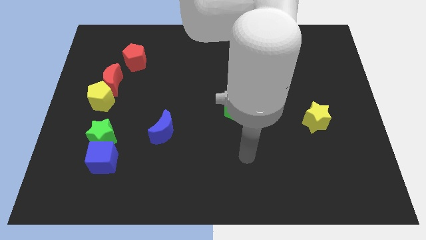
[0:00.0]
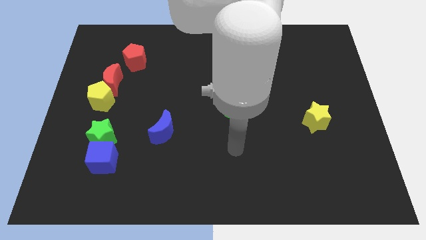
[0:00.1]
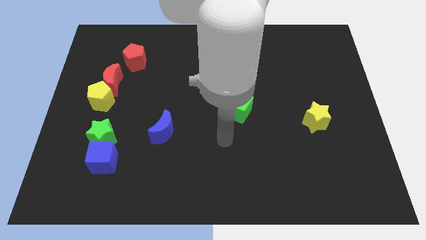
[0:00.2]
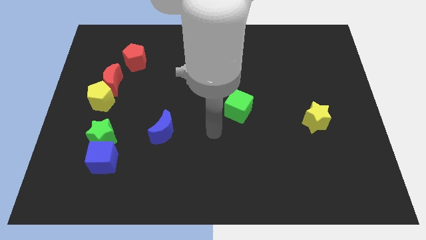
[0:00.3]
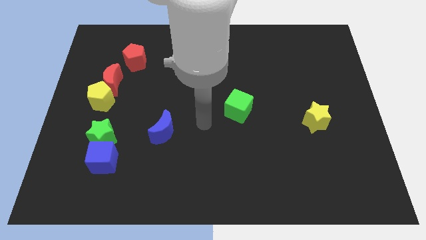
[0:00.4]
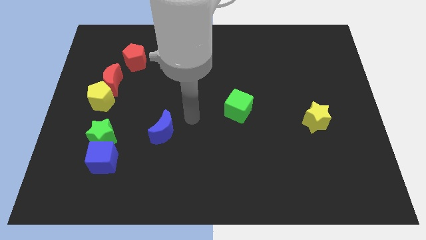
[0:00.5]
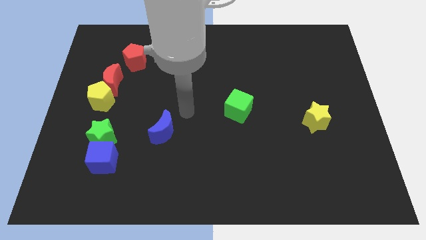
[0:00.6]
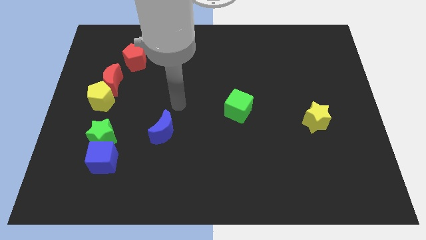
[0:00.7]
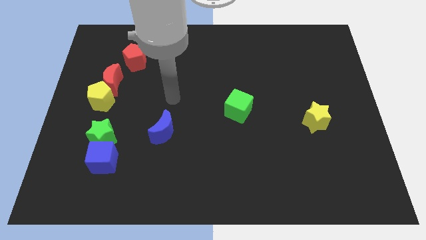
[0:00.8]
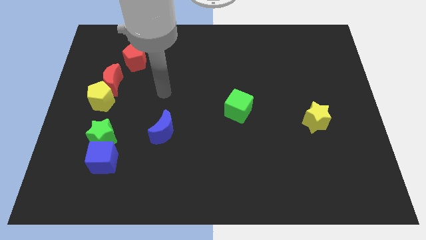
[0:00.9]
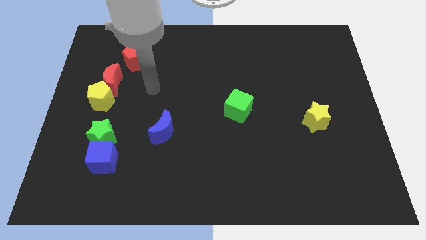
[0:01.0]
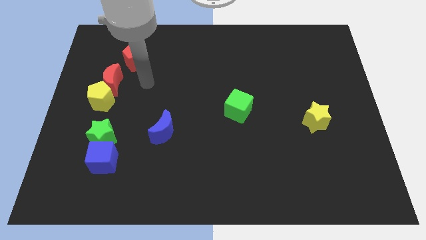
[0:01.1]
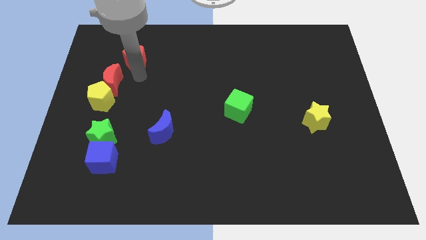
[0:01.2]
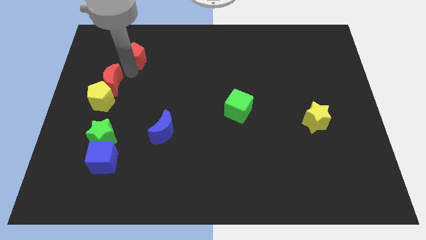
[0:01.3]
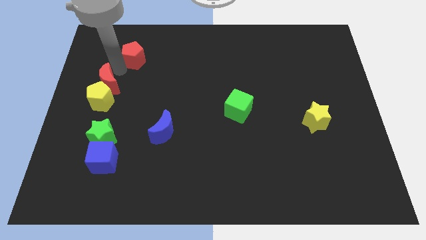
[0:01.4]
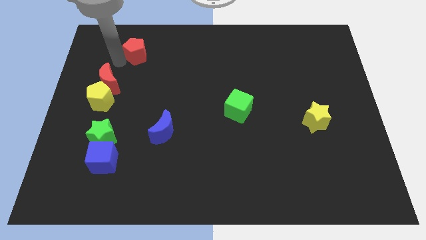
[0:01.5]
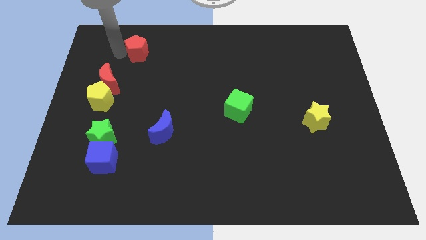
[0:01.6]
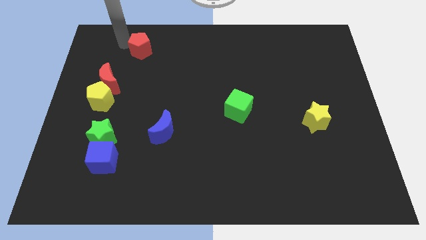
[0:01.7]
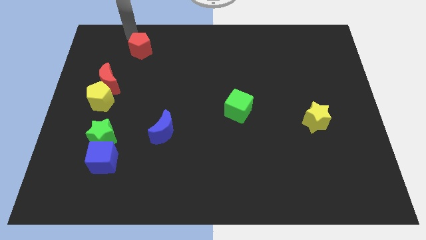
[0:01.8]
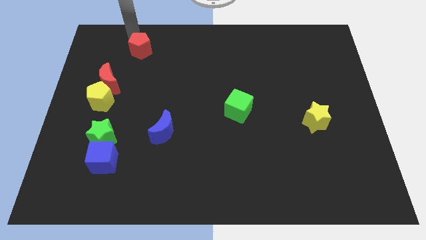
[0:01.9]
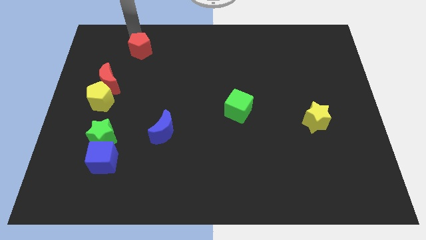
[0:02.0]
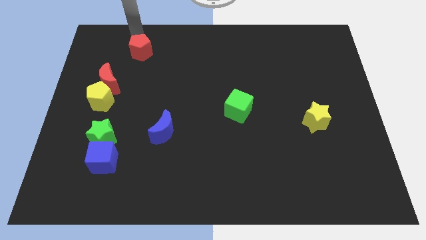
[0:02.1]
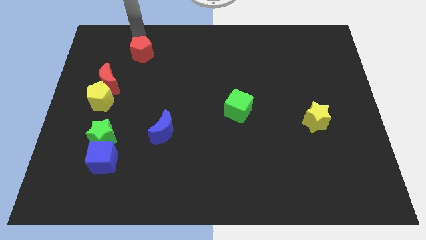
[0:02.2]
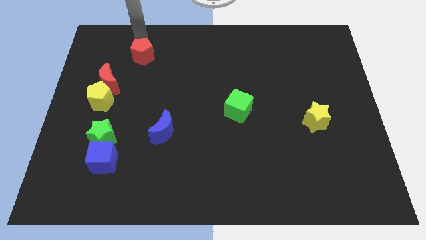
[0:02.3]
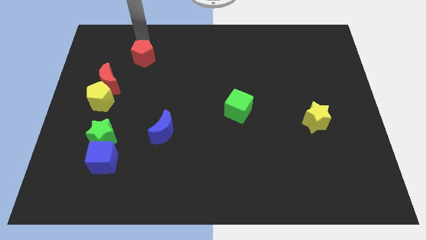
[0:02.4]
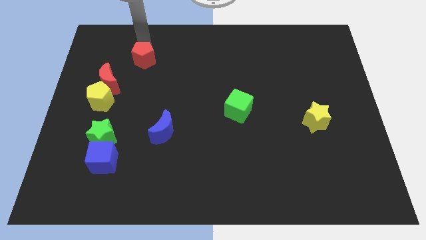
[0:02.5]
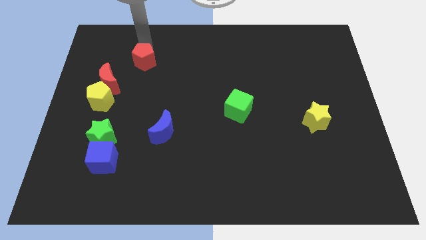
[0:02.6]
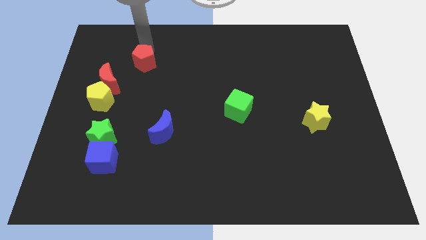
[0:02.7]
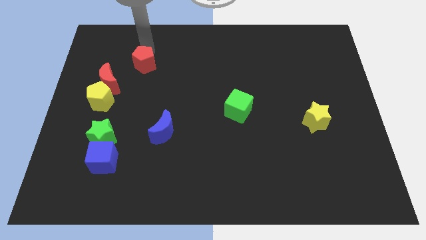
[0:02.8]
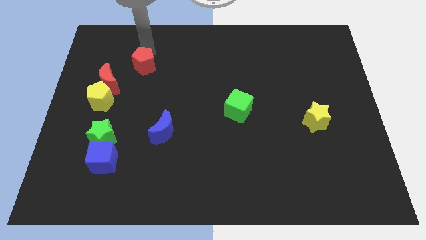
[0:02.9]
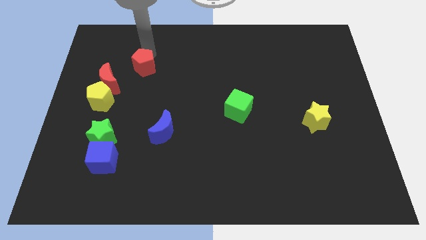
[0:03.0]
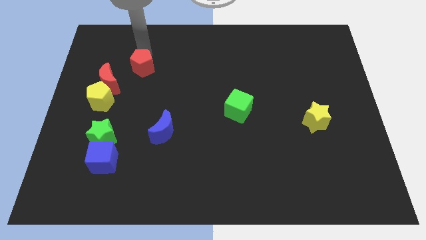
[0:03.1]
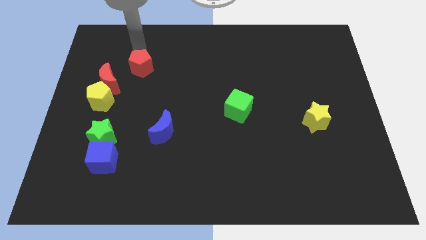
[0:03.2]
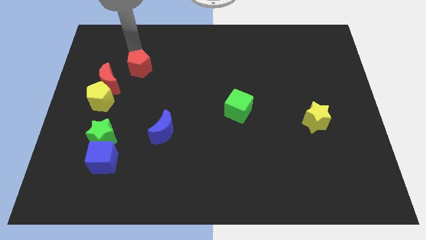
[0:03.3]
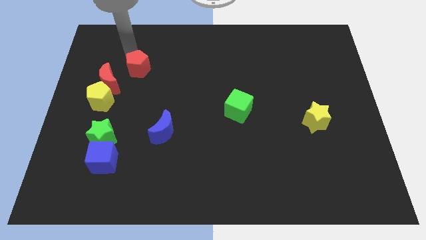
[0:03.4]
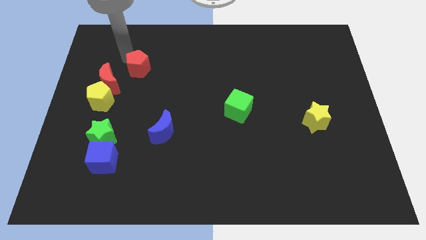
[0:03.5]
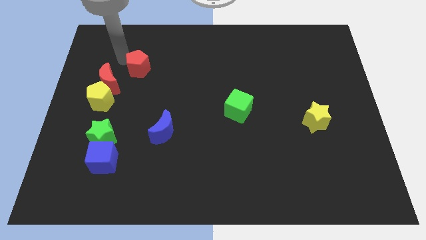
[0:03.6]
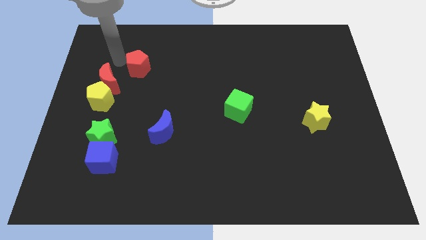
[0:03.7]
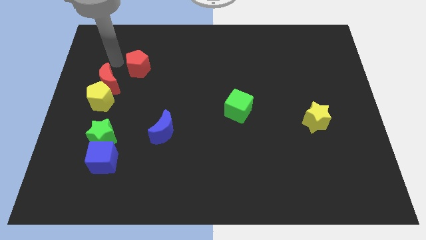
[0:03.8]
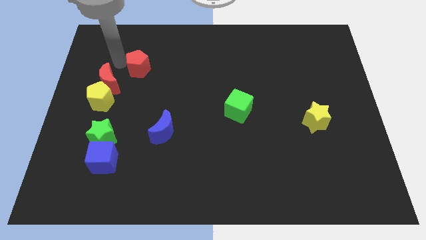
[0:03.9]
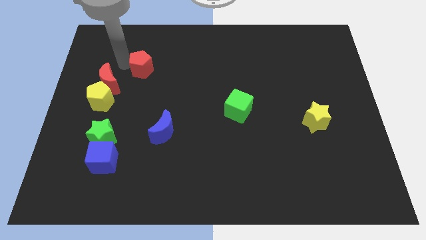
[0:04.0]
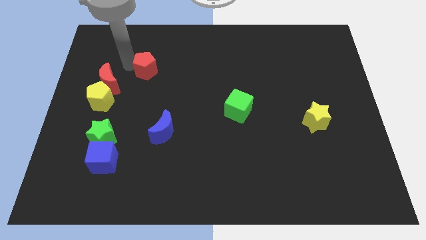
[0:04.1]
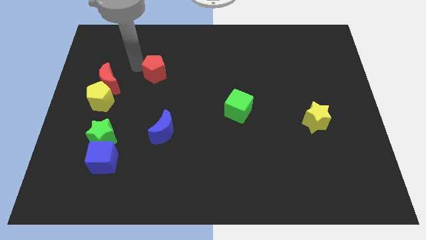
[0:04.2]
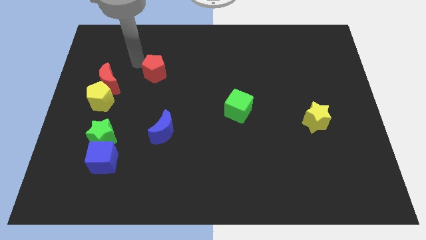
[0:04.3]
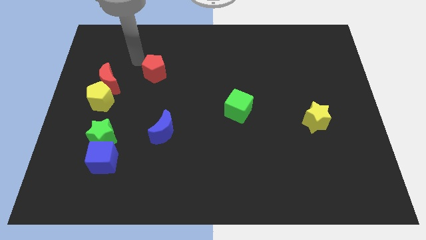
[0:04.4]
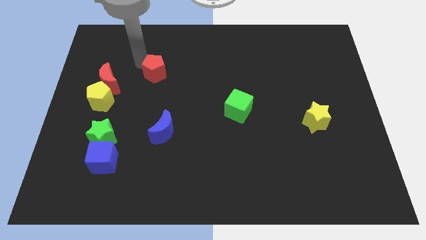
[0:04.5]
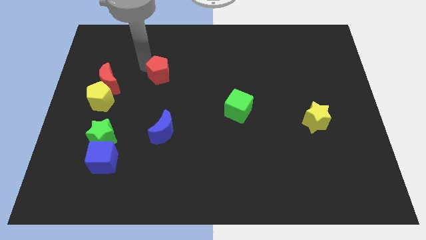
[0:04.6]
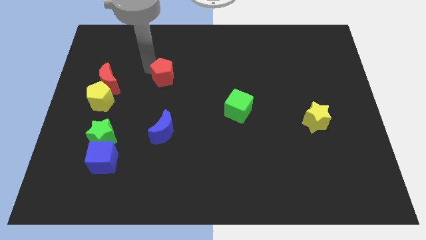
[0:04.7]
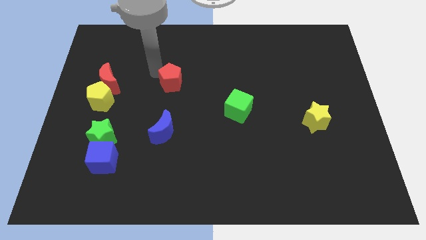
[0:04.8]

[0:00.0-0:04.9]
slide the red pentagon to the center

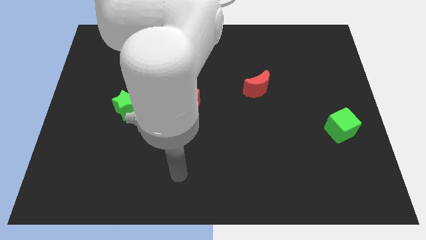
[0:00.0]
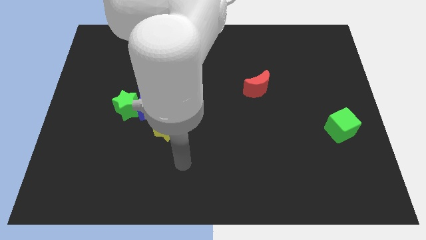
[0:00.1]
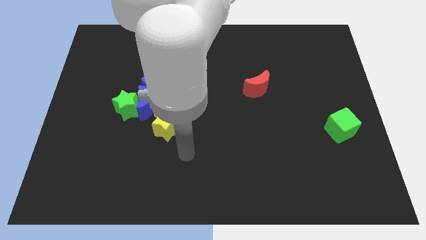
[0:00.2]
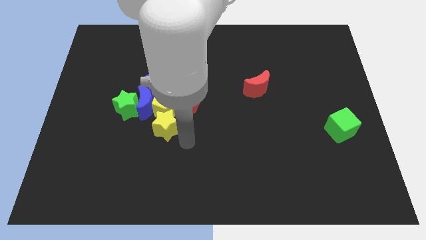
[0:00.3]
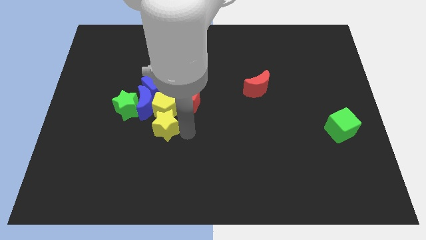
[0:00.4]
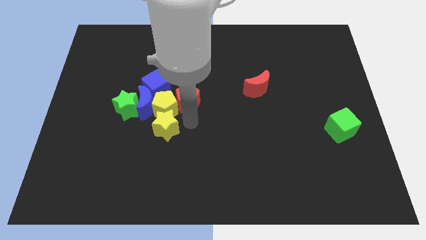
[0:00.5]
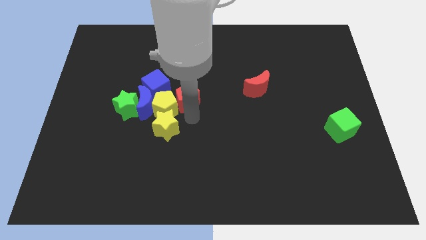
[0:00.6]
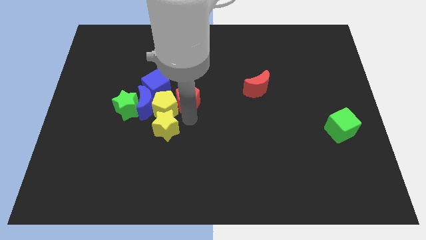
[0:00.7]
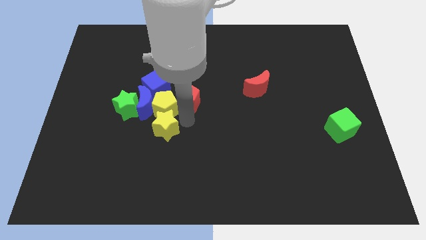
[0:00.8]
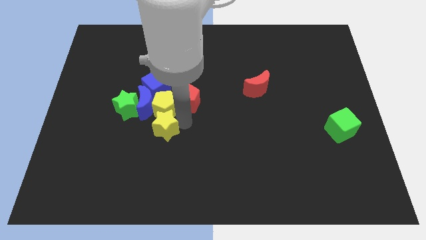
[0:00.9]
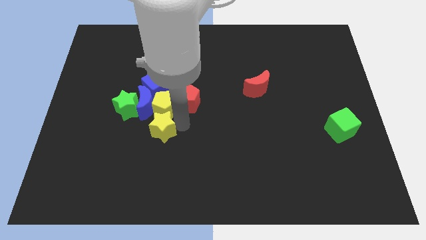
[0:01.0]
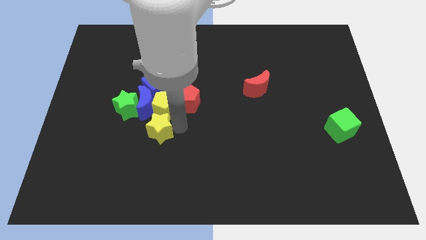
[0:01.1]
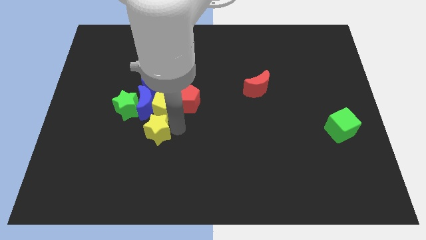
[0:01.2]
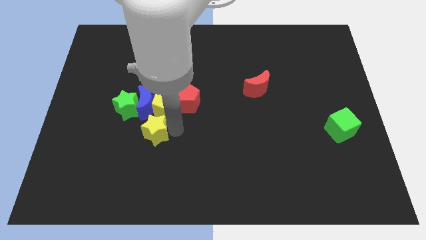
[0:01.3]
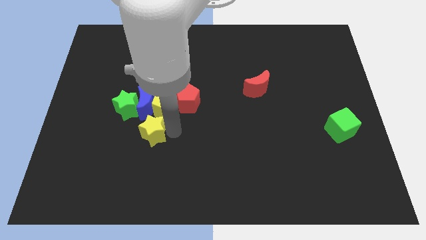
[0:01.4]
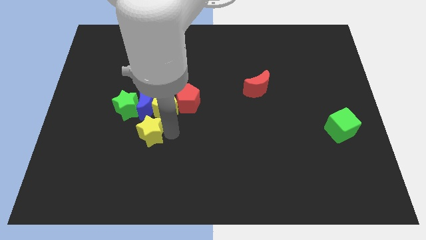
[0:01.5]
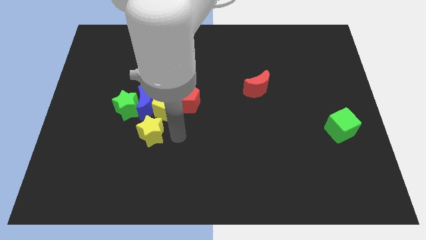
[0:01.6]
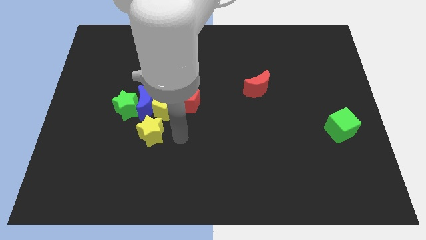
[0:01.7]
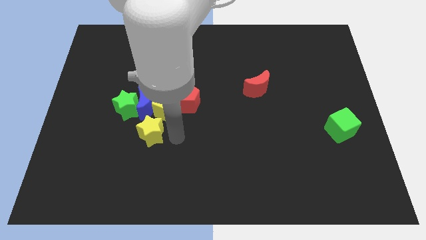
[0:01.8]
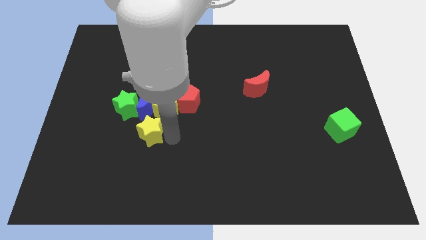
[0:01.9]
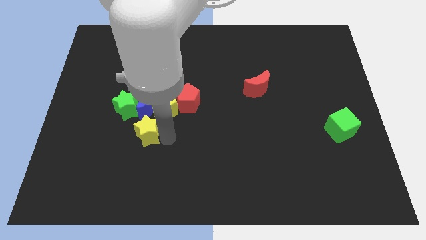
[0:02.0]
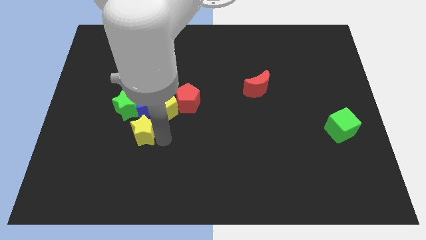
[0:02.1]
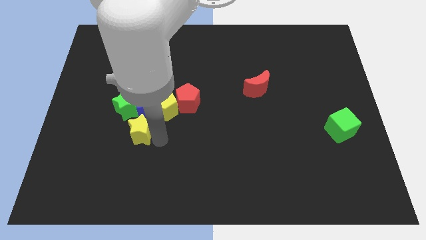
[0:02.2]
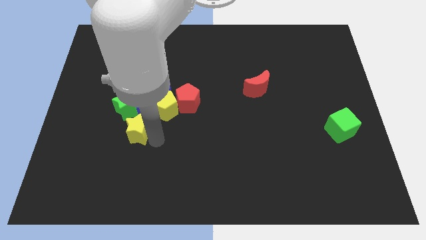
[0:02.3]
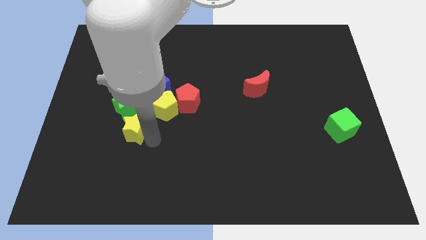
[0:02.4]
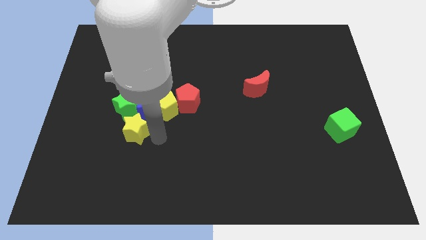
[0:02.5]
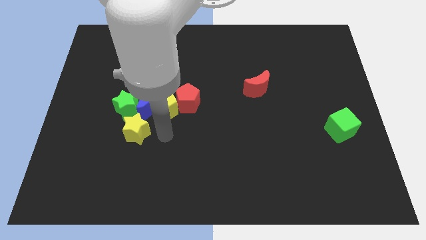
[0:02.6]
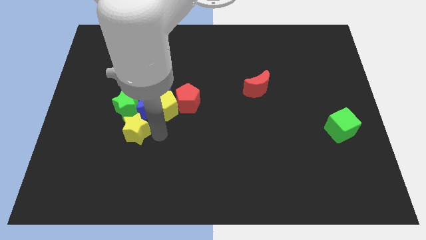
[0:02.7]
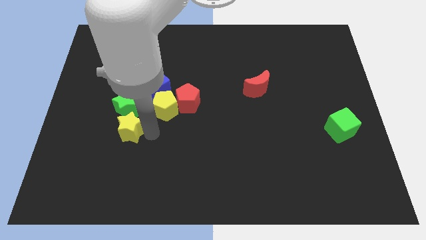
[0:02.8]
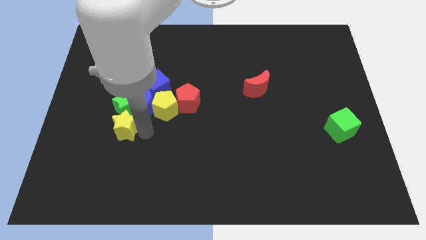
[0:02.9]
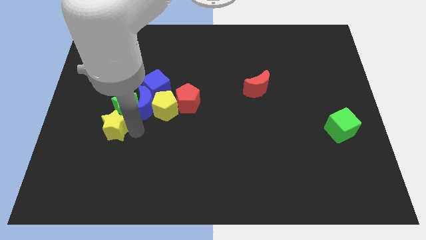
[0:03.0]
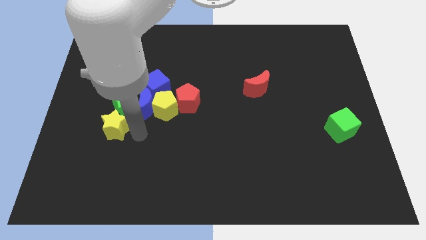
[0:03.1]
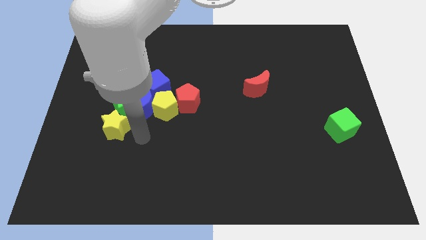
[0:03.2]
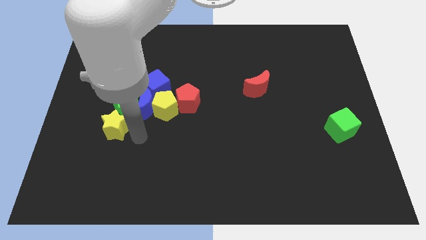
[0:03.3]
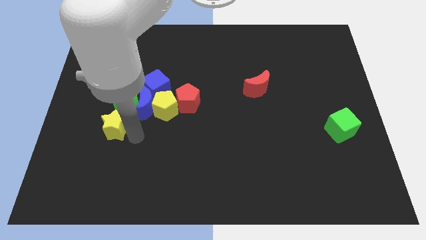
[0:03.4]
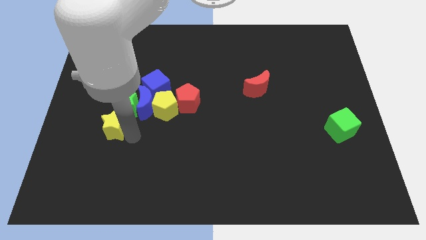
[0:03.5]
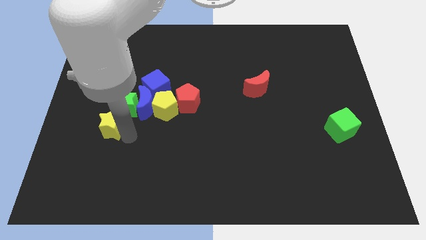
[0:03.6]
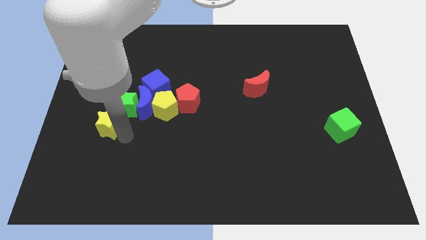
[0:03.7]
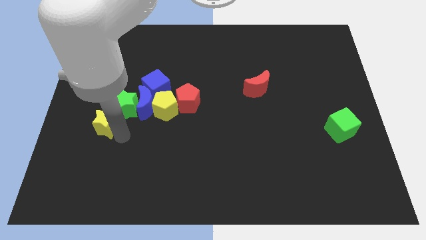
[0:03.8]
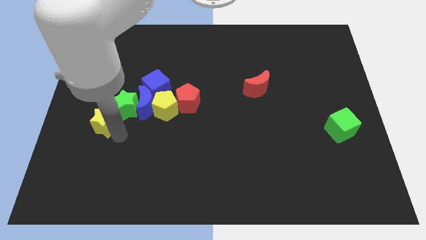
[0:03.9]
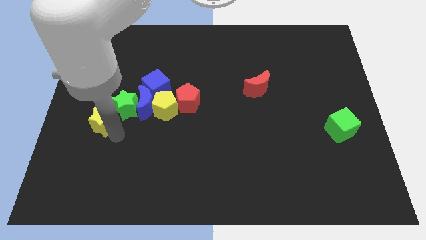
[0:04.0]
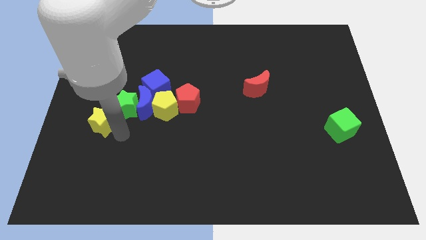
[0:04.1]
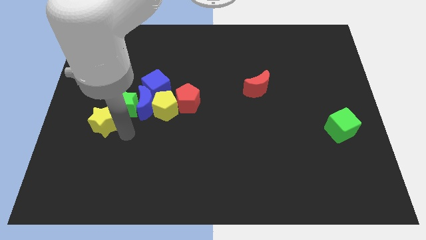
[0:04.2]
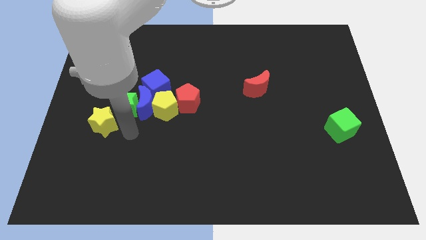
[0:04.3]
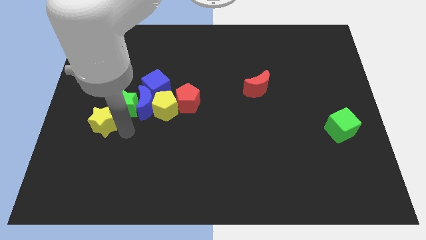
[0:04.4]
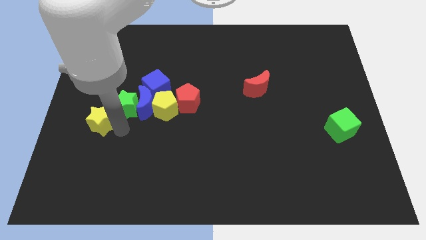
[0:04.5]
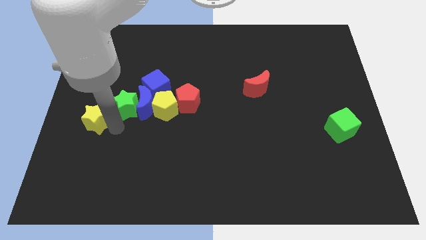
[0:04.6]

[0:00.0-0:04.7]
put the yellow star to the left side
